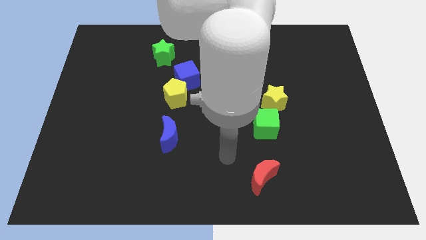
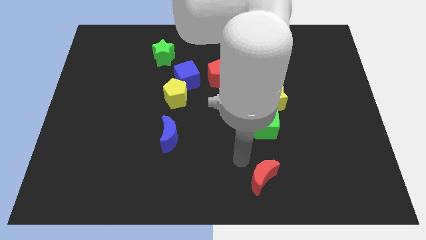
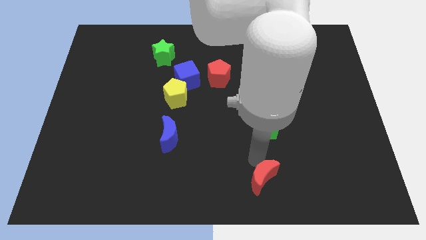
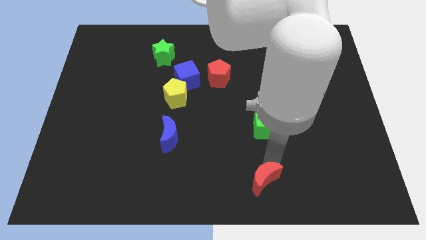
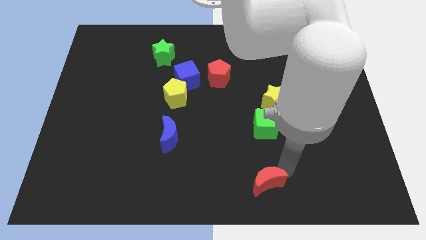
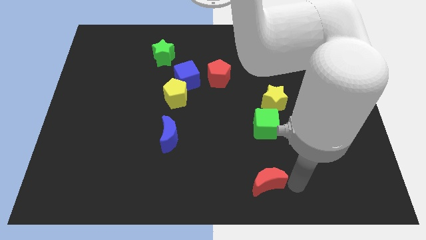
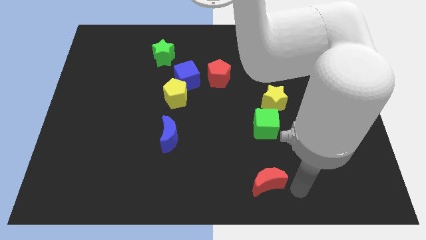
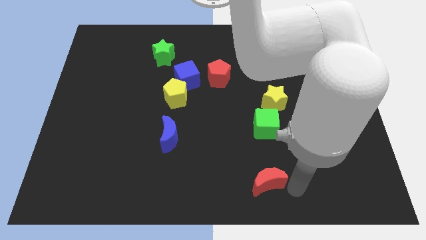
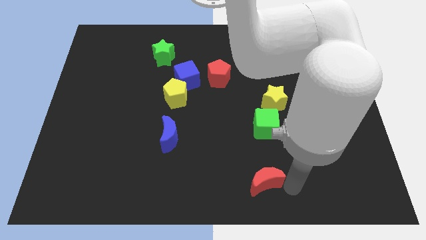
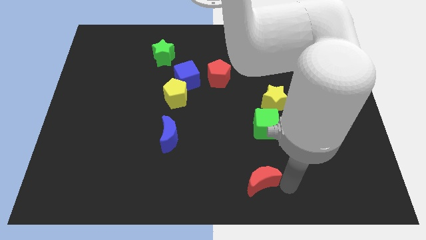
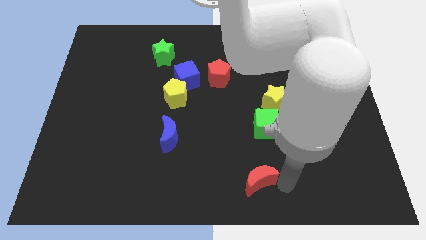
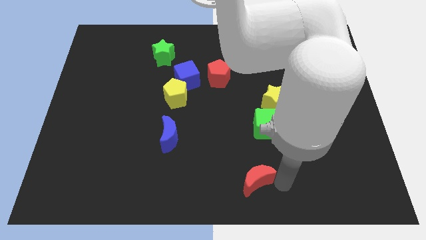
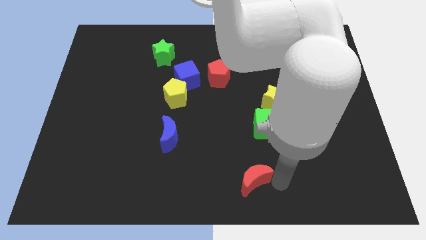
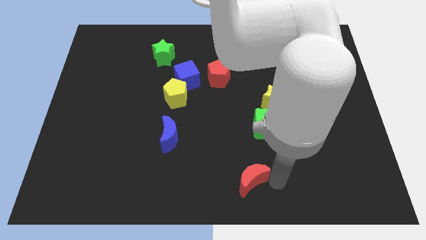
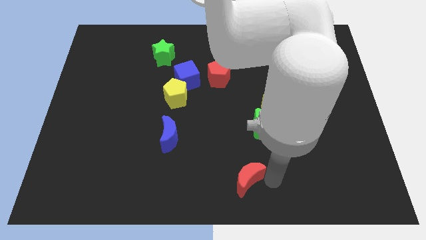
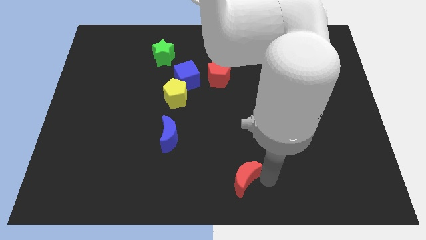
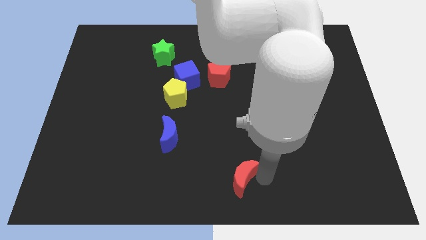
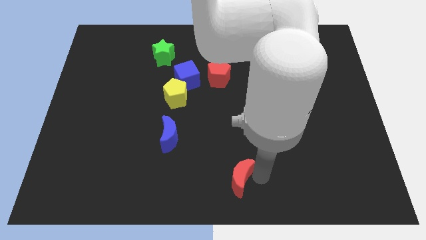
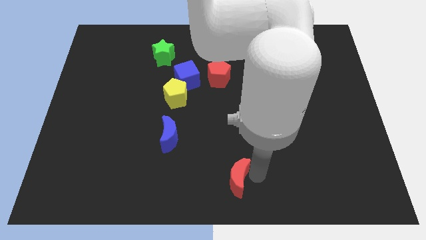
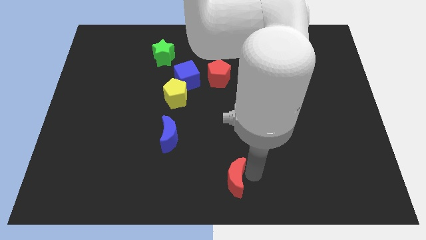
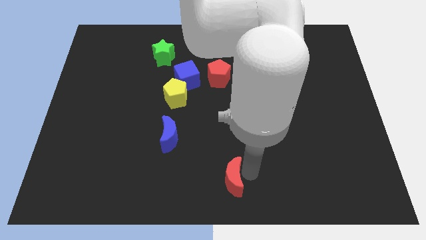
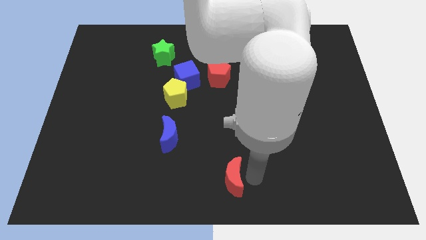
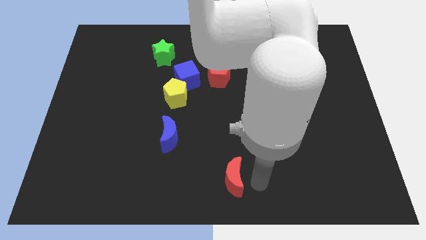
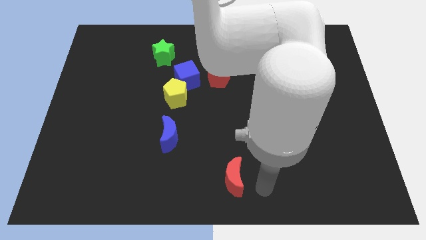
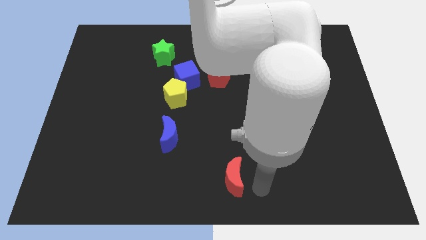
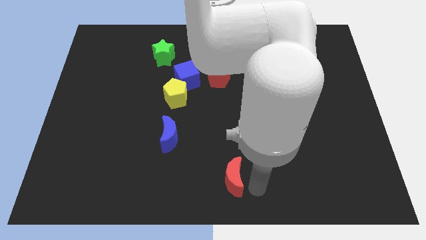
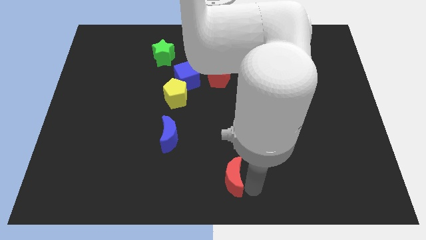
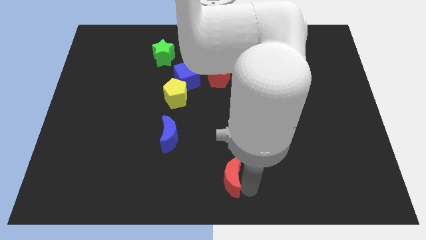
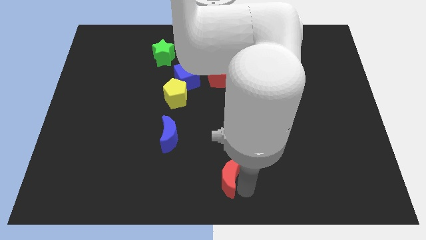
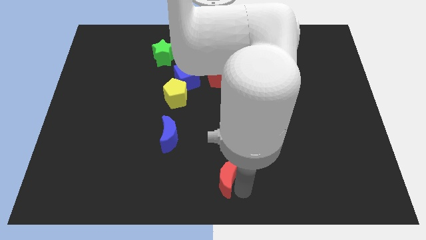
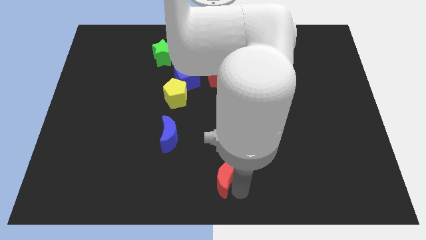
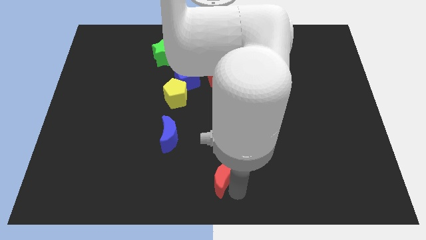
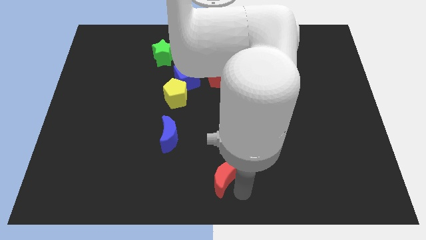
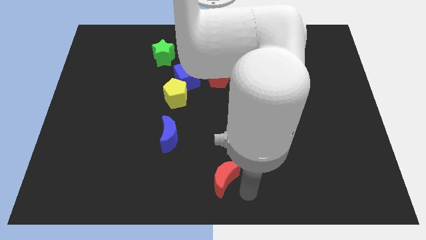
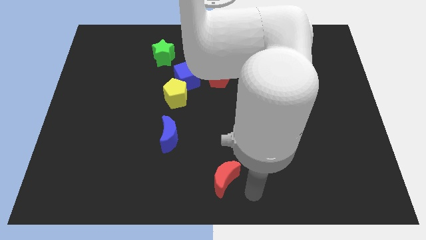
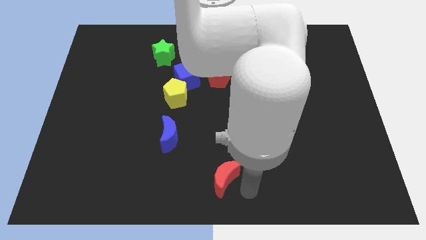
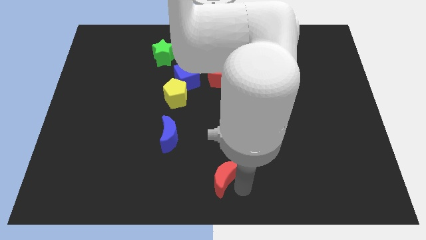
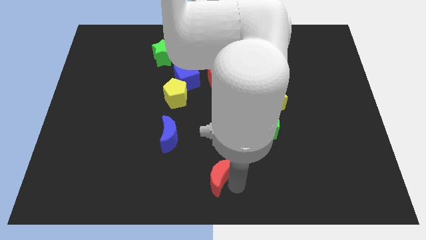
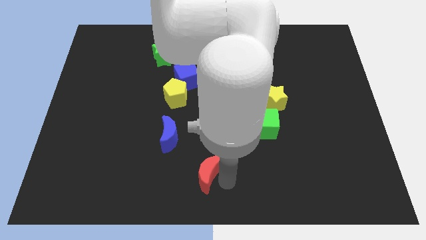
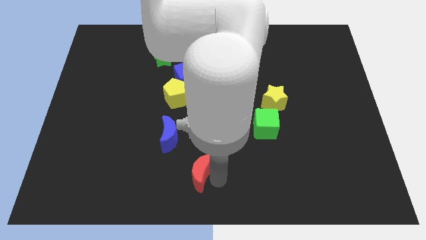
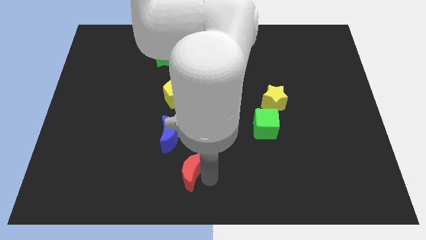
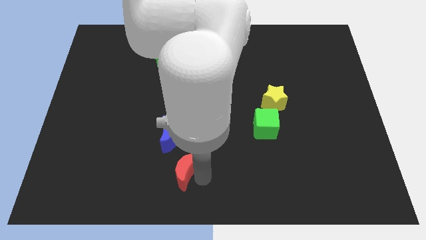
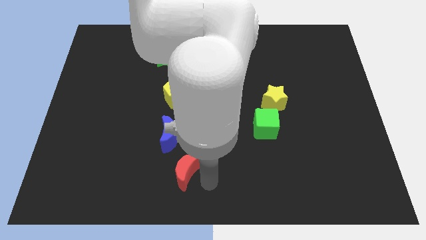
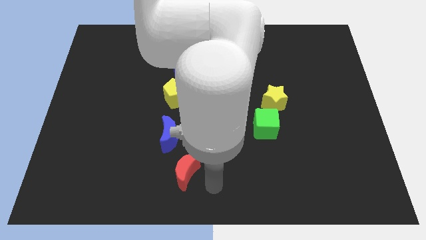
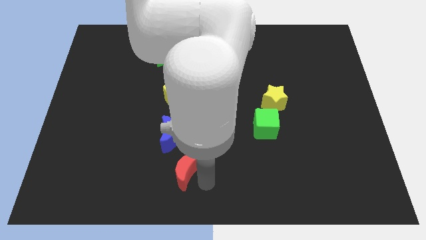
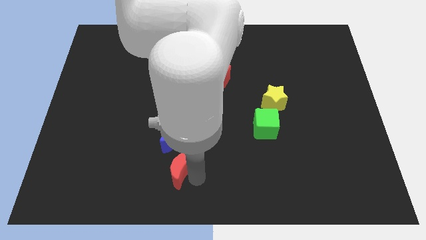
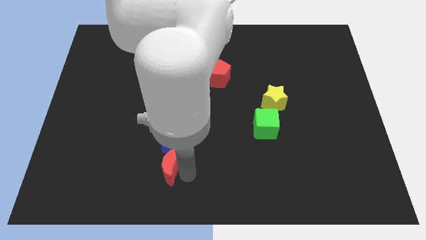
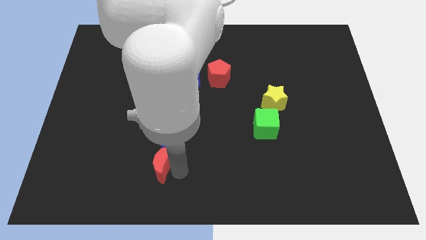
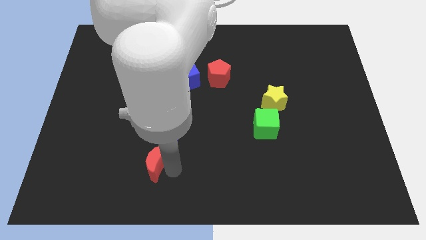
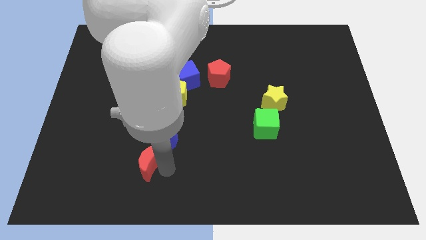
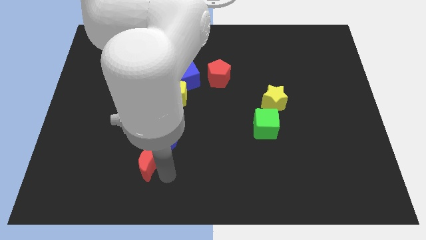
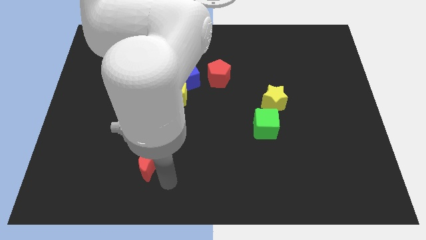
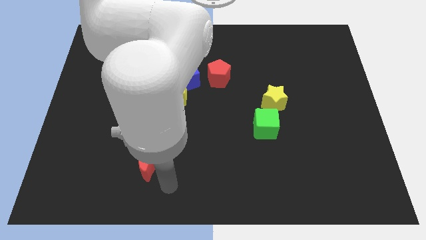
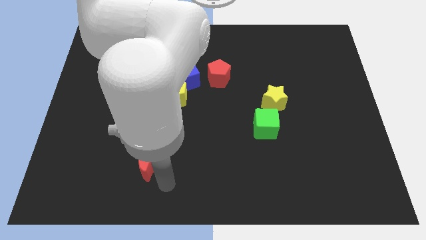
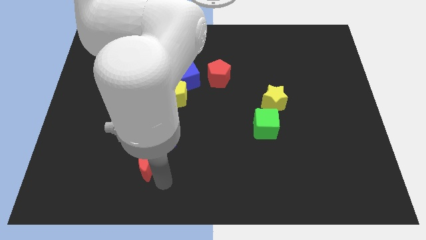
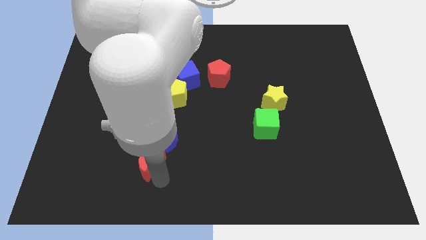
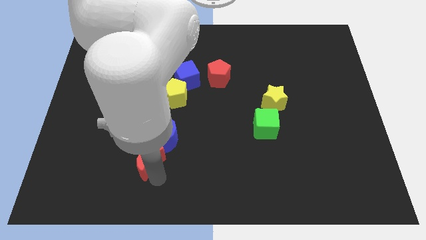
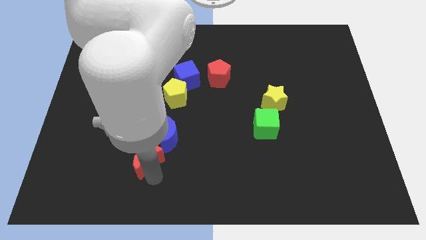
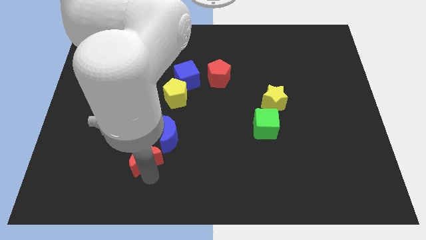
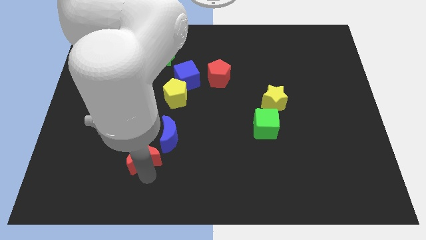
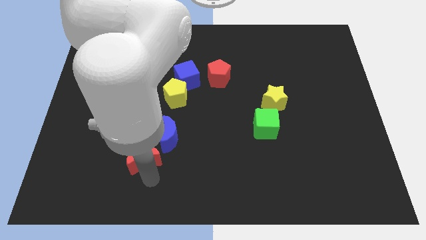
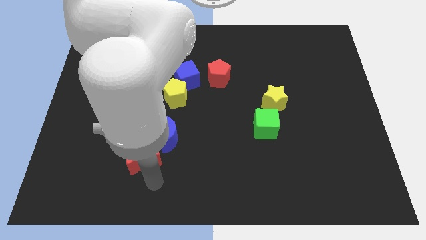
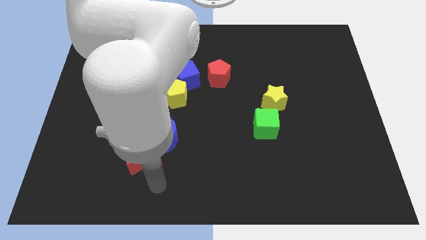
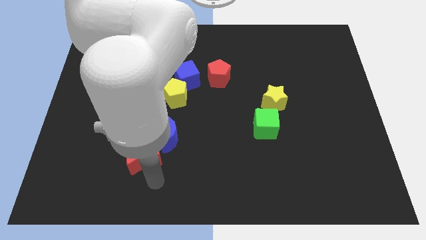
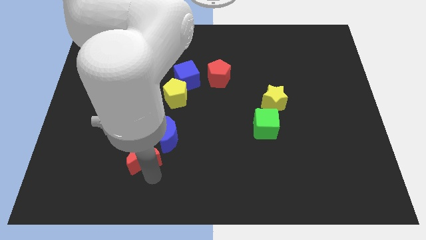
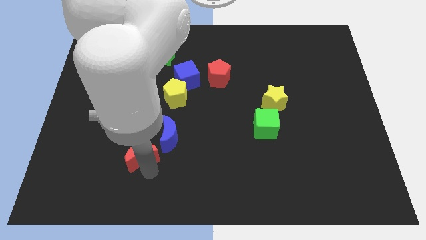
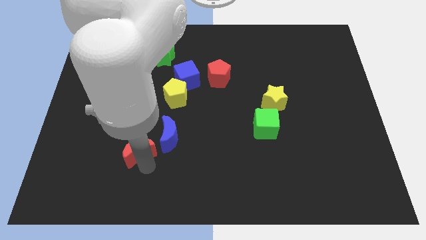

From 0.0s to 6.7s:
move the red moon left of the blue moon

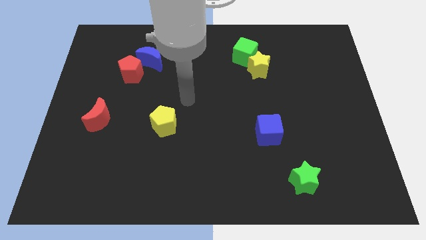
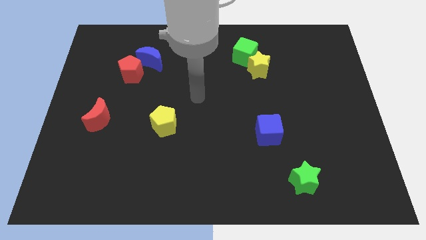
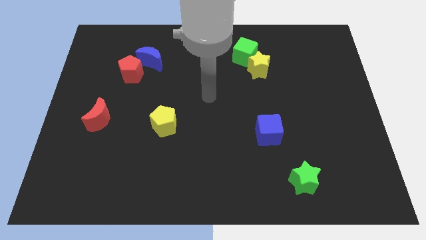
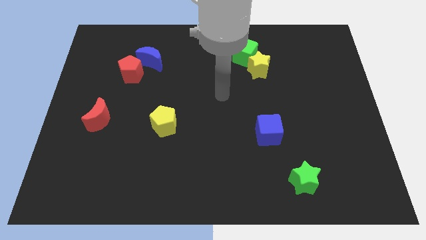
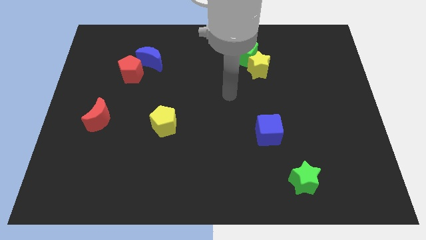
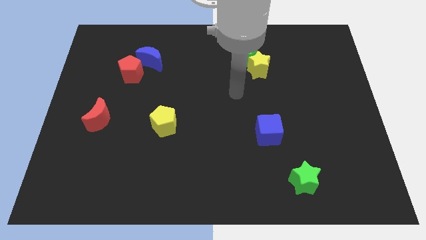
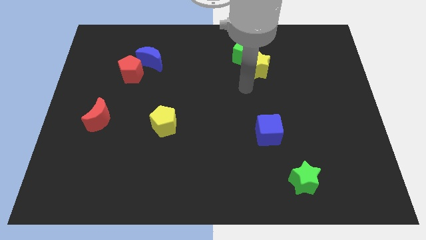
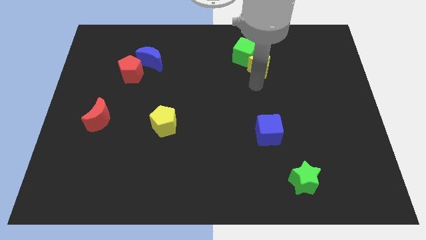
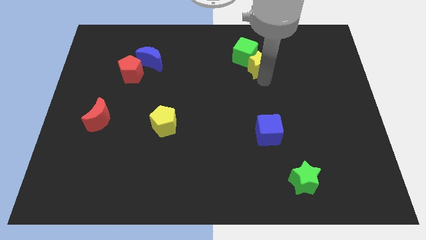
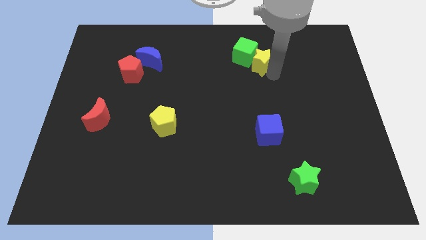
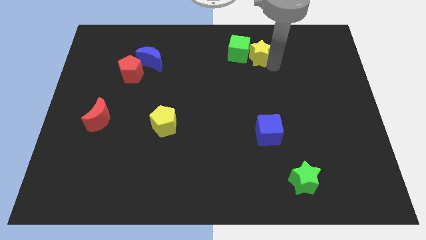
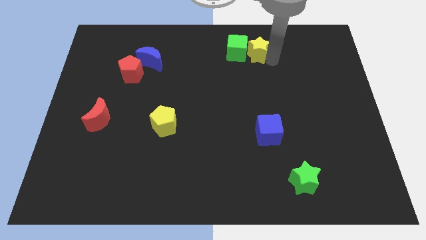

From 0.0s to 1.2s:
slide the green cube to the bottom left side of the yellow star
